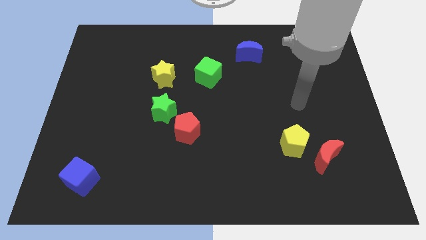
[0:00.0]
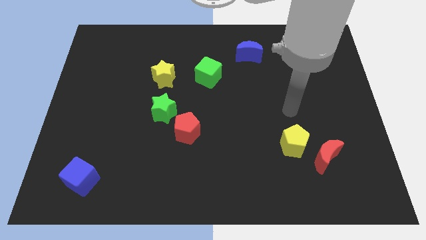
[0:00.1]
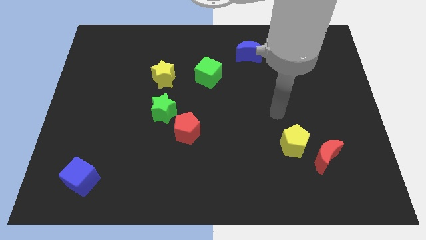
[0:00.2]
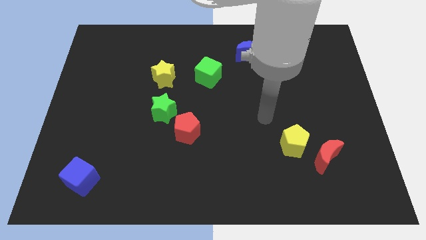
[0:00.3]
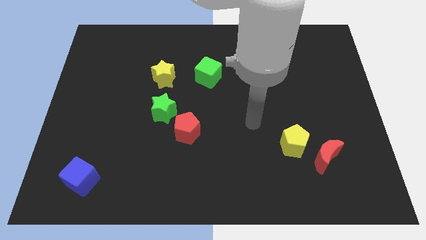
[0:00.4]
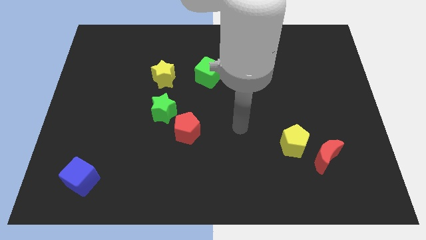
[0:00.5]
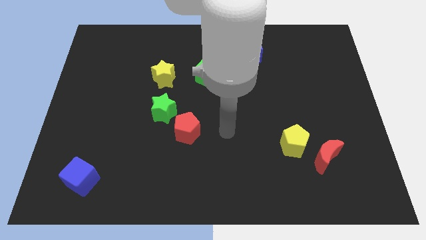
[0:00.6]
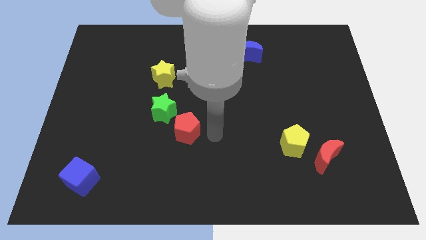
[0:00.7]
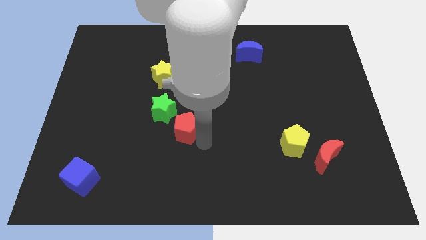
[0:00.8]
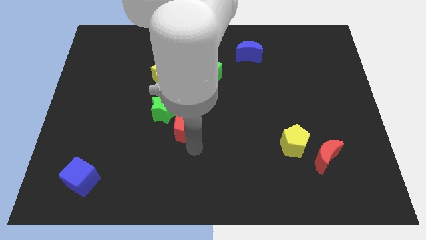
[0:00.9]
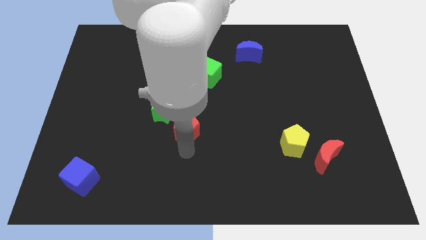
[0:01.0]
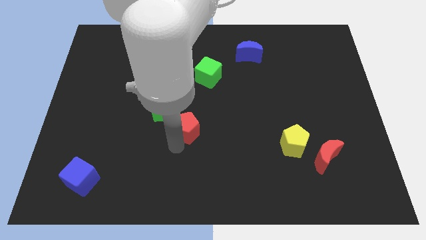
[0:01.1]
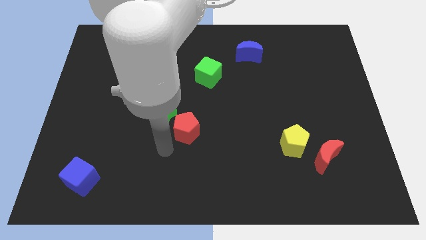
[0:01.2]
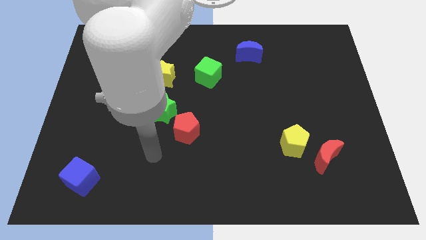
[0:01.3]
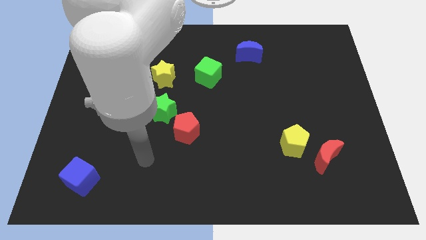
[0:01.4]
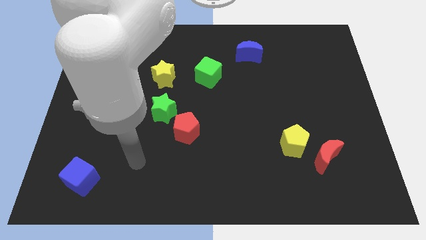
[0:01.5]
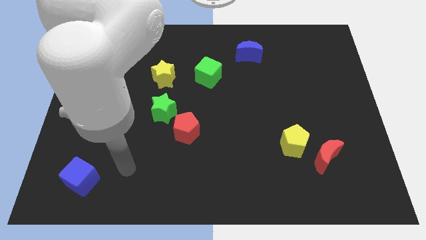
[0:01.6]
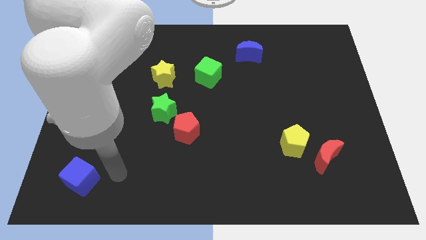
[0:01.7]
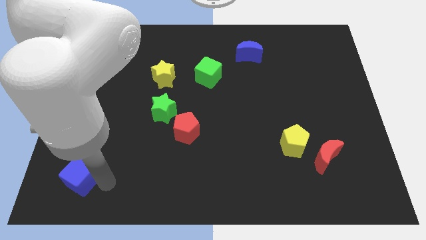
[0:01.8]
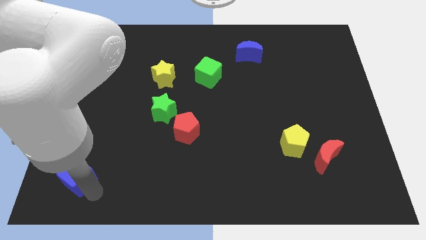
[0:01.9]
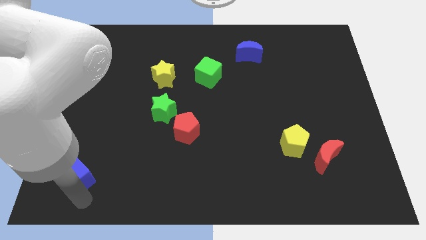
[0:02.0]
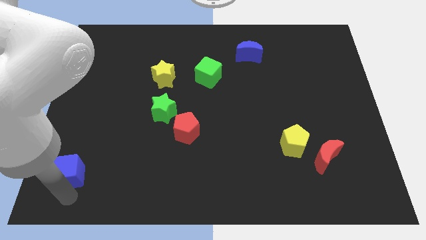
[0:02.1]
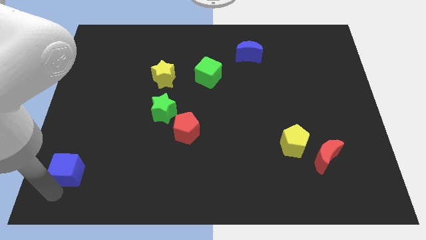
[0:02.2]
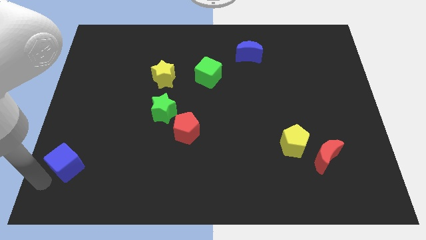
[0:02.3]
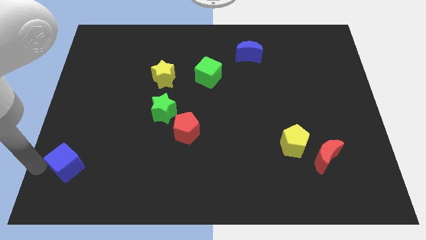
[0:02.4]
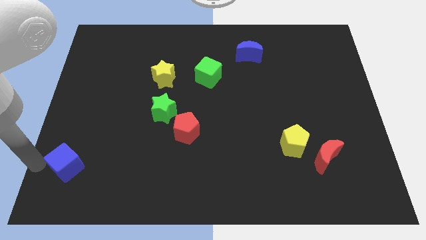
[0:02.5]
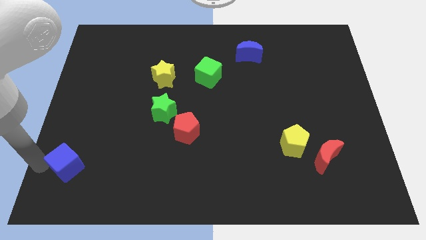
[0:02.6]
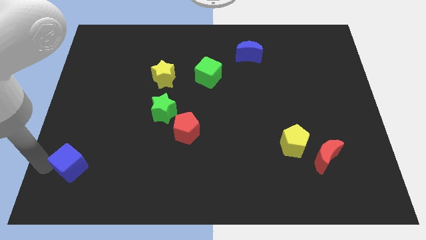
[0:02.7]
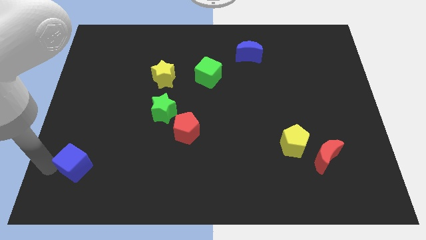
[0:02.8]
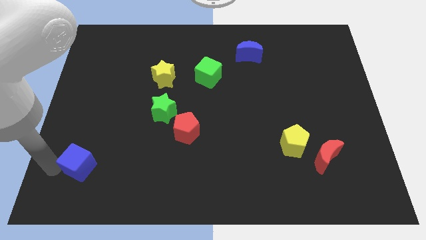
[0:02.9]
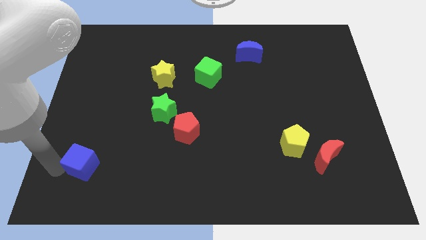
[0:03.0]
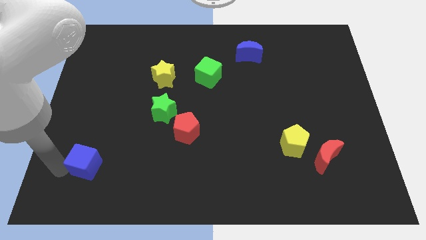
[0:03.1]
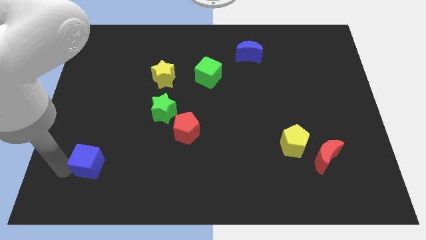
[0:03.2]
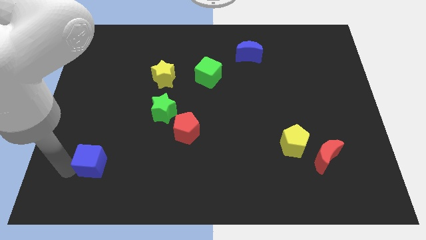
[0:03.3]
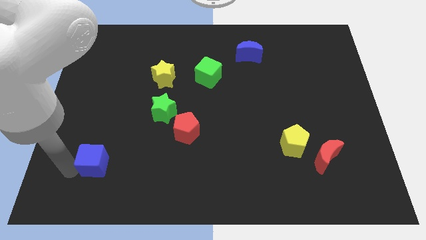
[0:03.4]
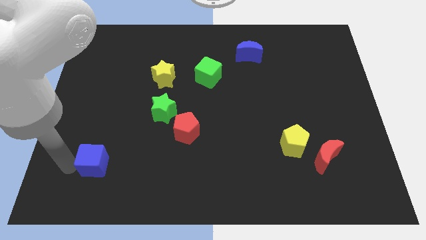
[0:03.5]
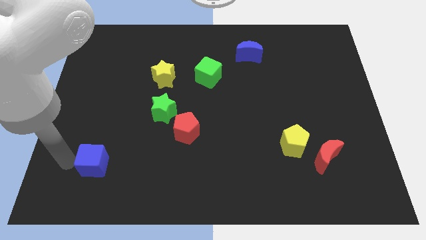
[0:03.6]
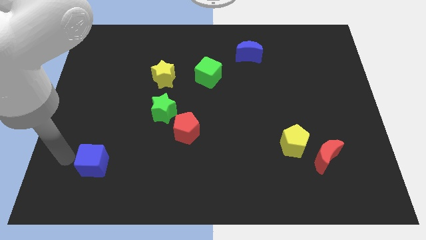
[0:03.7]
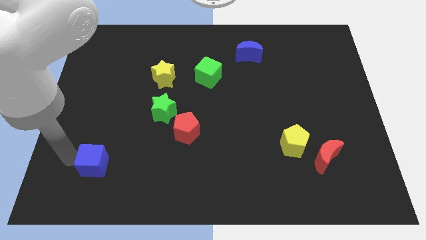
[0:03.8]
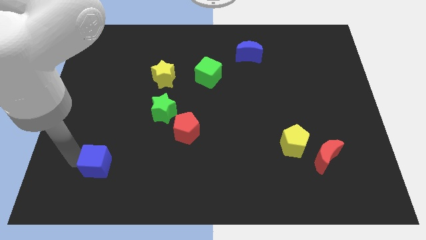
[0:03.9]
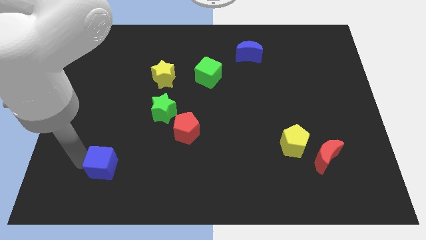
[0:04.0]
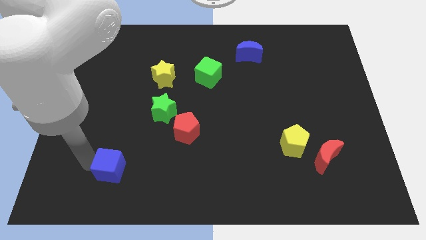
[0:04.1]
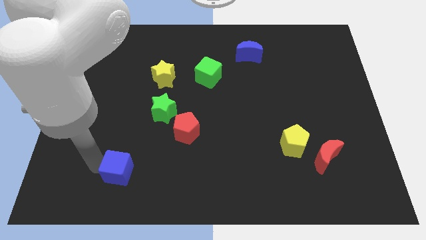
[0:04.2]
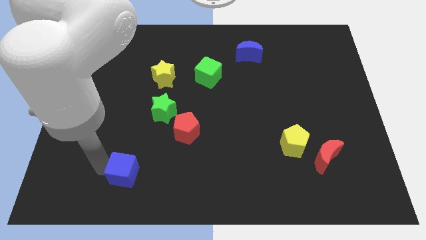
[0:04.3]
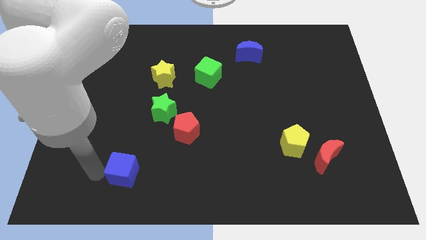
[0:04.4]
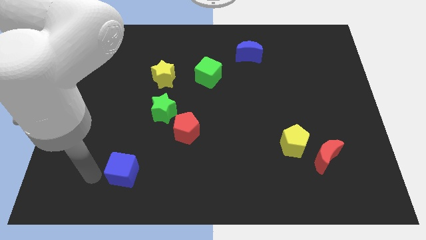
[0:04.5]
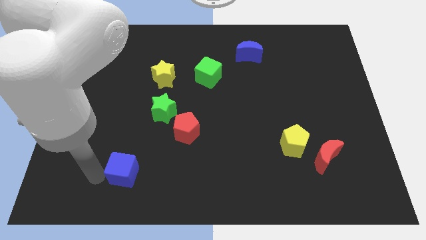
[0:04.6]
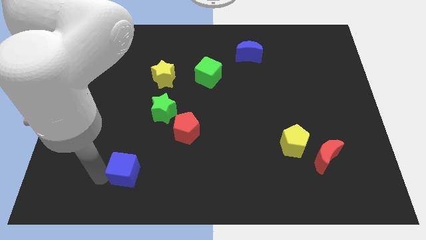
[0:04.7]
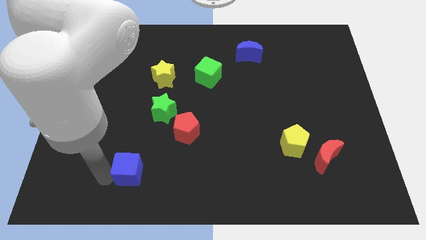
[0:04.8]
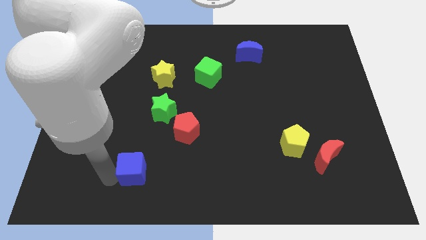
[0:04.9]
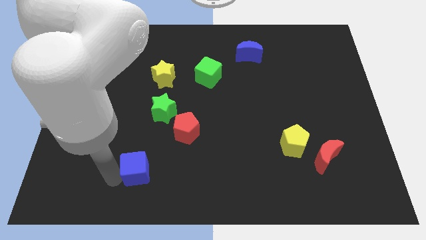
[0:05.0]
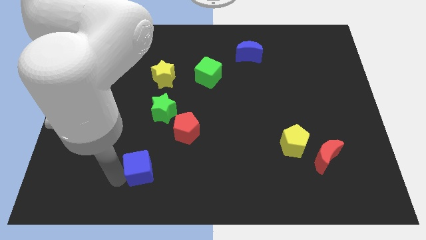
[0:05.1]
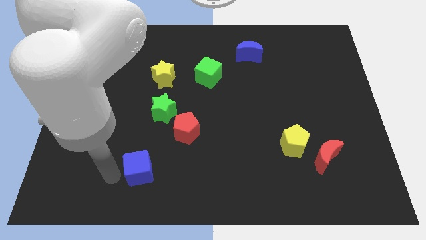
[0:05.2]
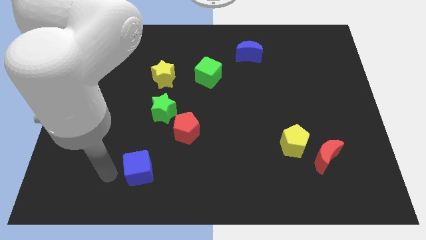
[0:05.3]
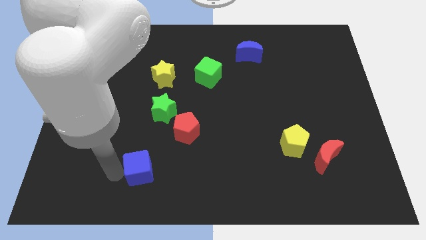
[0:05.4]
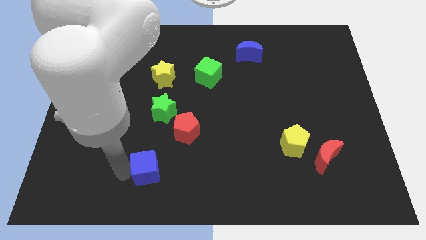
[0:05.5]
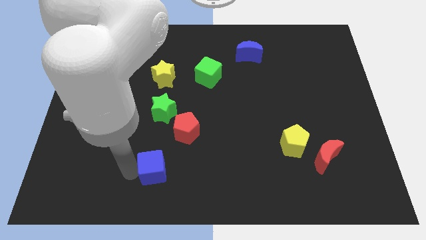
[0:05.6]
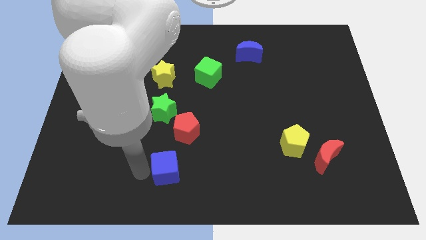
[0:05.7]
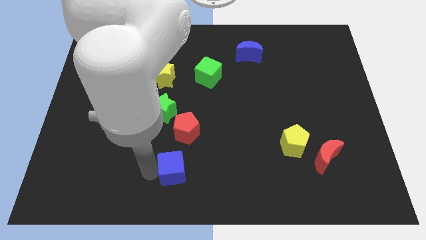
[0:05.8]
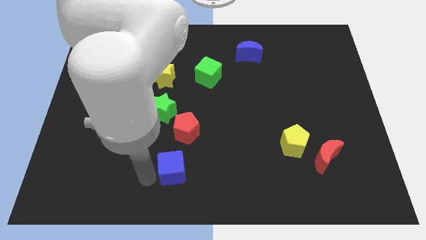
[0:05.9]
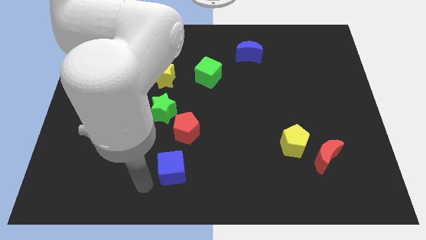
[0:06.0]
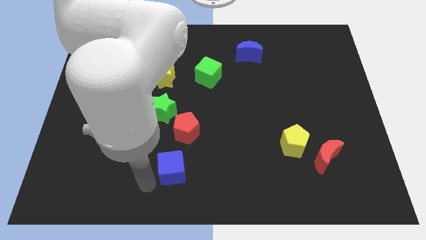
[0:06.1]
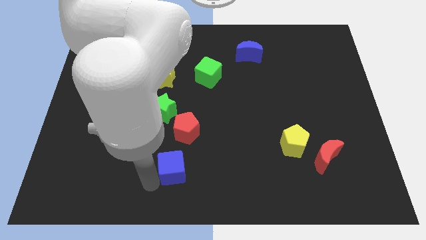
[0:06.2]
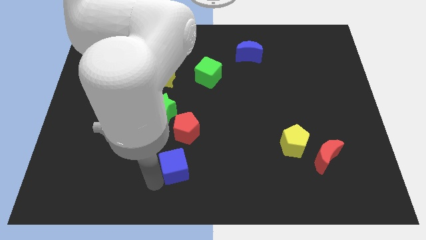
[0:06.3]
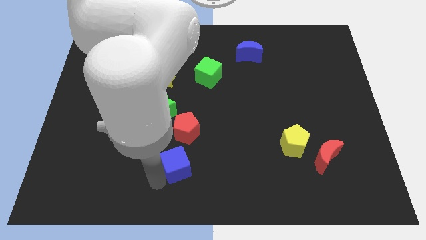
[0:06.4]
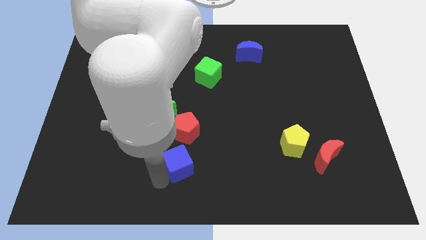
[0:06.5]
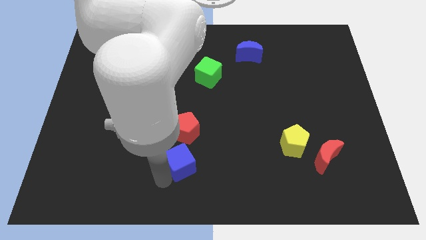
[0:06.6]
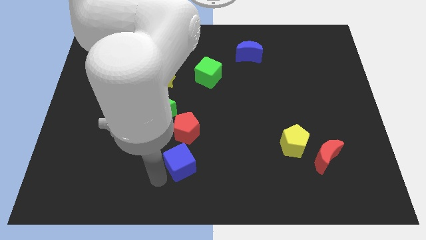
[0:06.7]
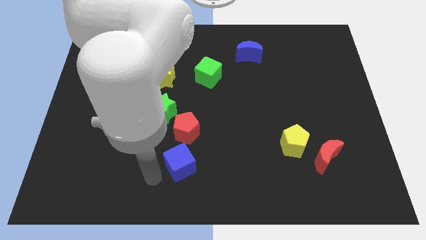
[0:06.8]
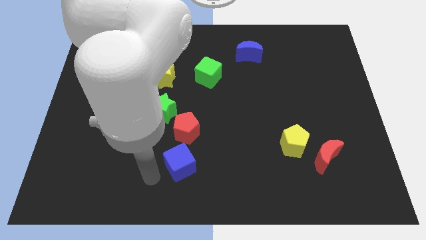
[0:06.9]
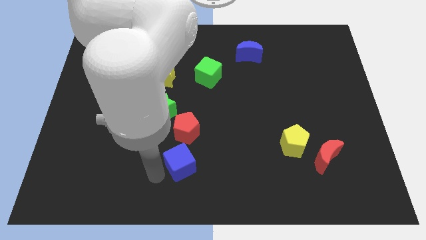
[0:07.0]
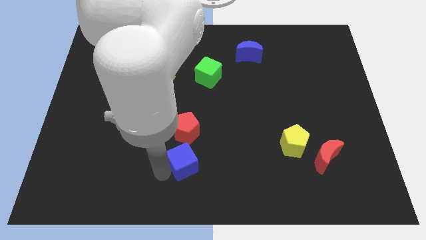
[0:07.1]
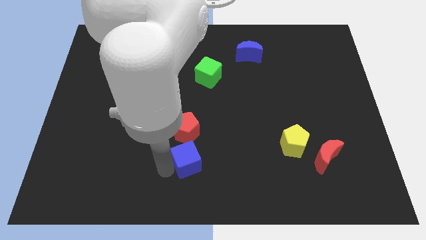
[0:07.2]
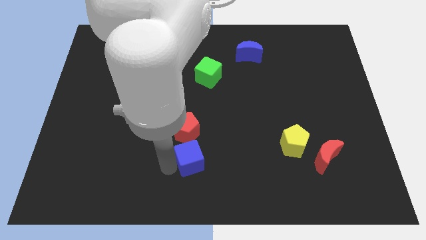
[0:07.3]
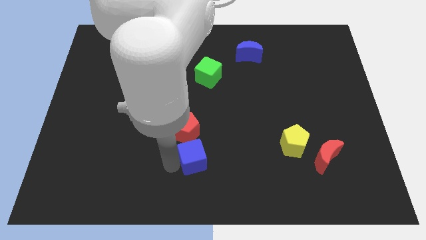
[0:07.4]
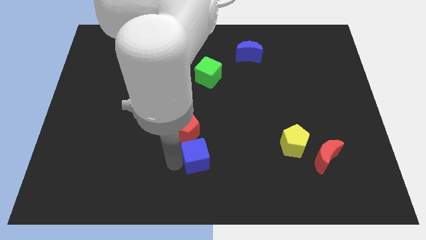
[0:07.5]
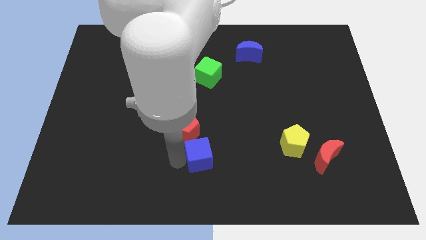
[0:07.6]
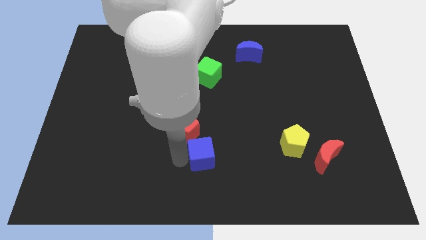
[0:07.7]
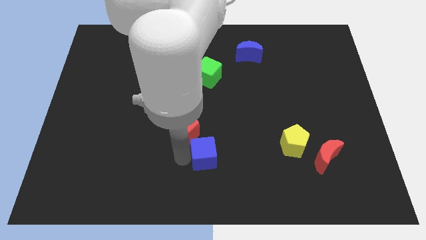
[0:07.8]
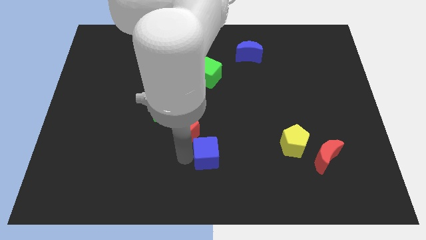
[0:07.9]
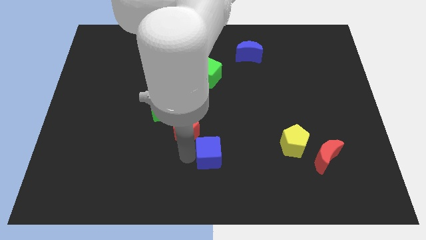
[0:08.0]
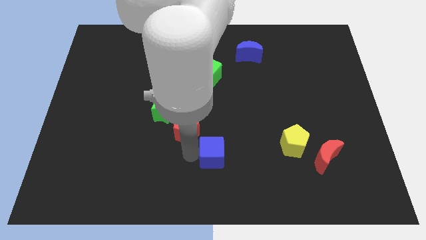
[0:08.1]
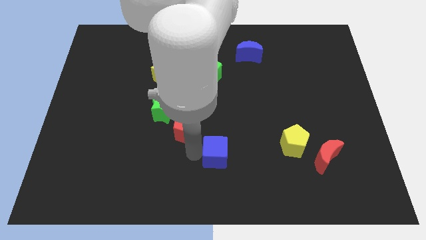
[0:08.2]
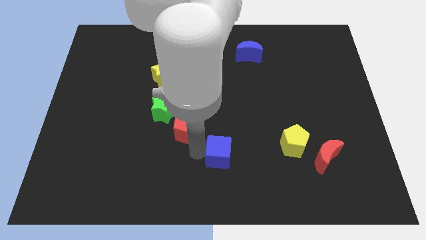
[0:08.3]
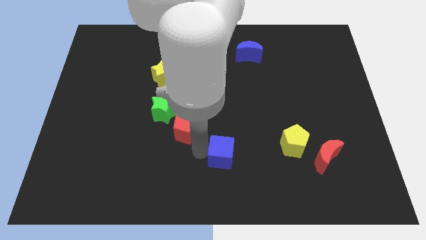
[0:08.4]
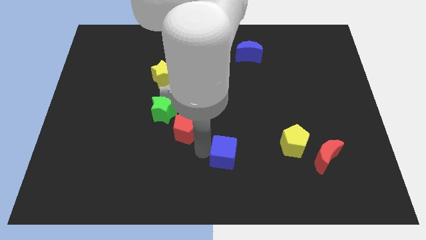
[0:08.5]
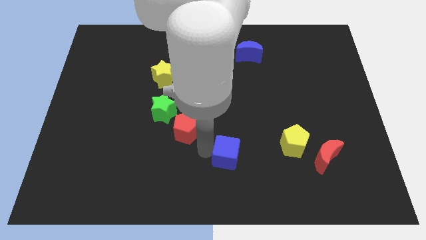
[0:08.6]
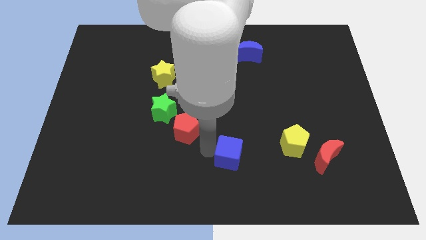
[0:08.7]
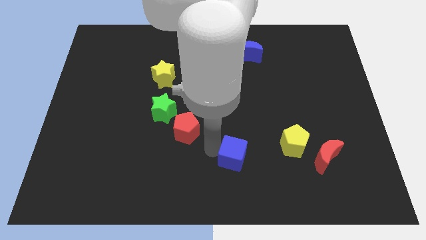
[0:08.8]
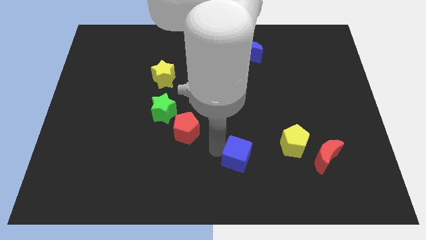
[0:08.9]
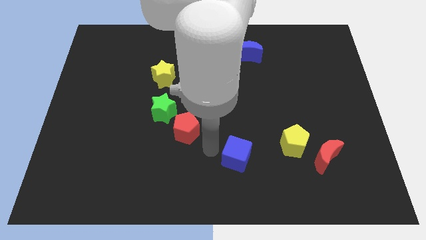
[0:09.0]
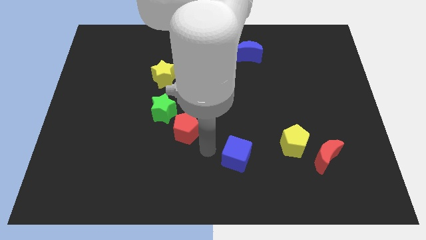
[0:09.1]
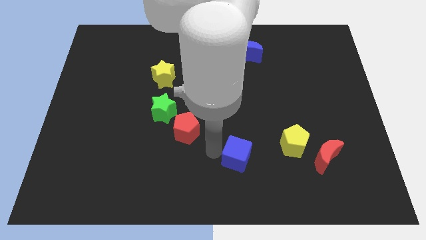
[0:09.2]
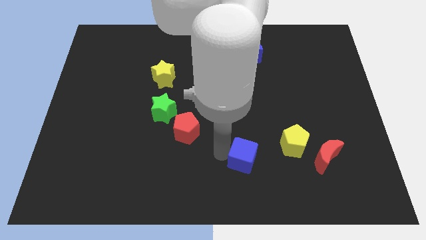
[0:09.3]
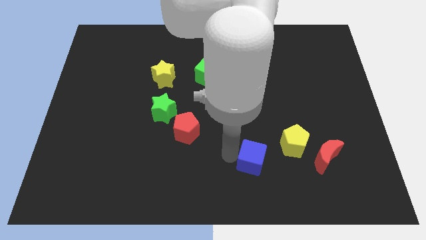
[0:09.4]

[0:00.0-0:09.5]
move the blue cube diagonally down and to the left of the yellow pentagon
